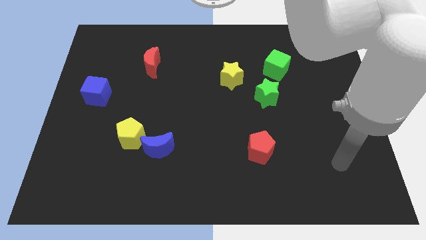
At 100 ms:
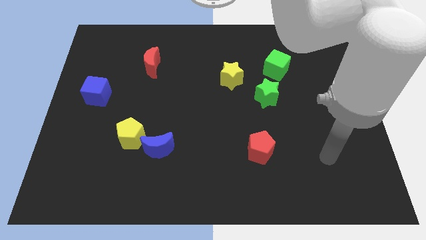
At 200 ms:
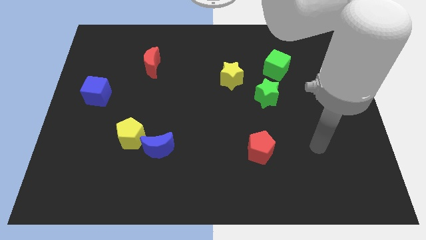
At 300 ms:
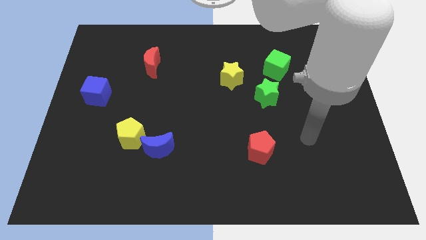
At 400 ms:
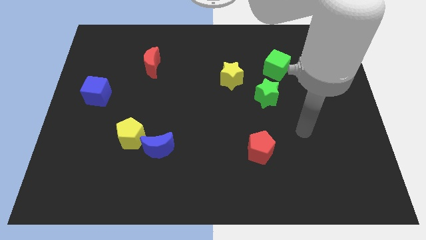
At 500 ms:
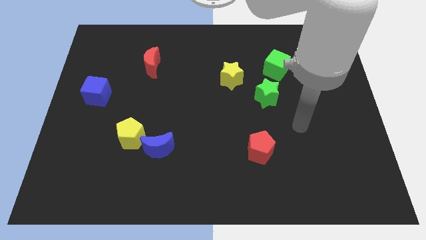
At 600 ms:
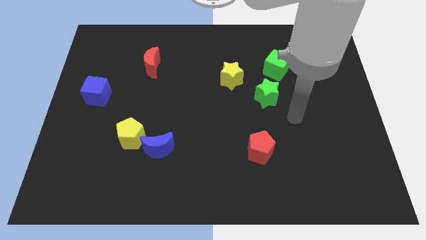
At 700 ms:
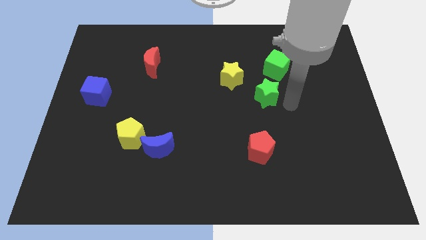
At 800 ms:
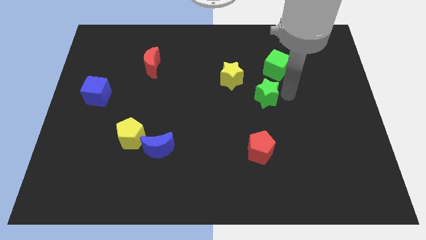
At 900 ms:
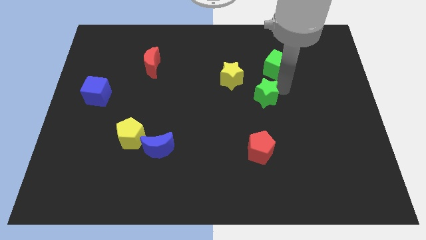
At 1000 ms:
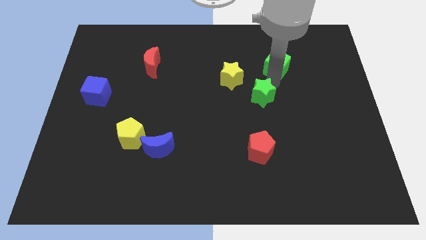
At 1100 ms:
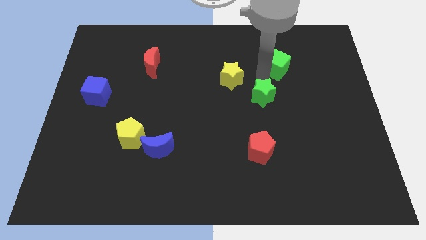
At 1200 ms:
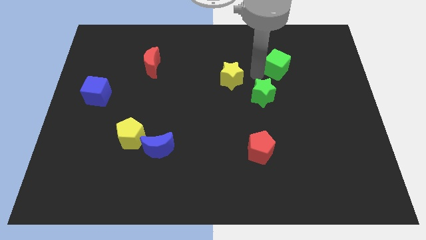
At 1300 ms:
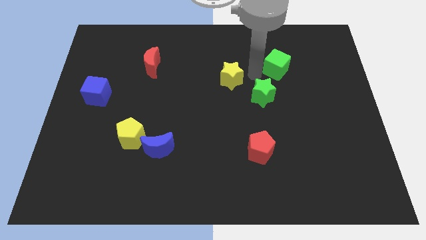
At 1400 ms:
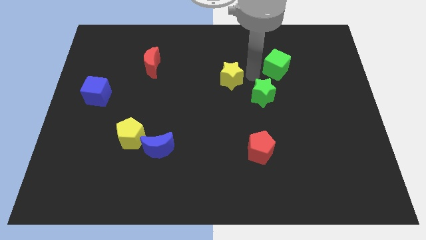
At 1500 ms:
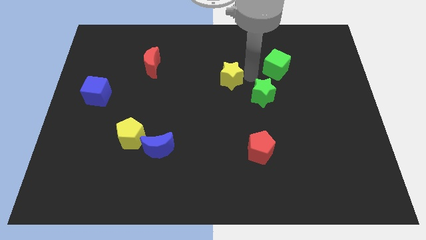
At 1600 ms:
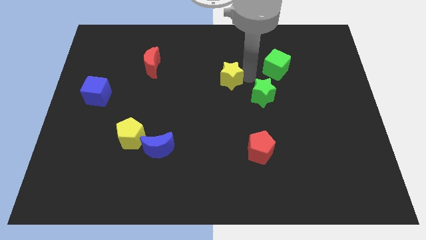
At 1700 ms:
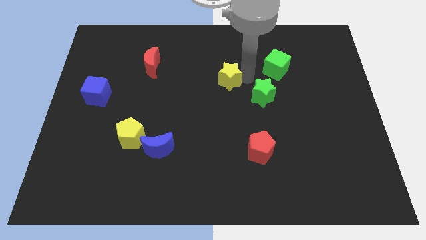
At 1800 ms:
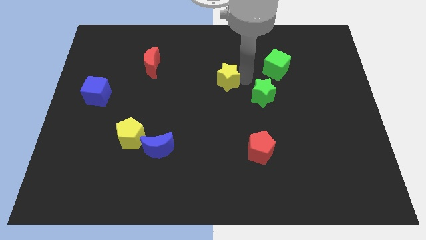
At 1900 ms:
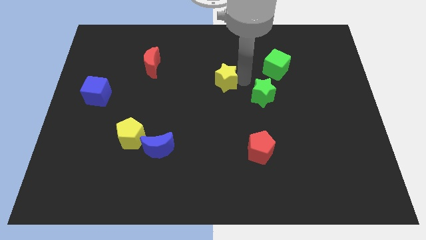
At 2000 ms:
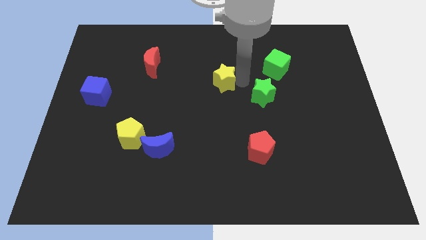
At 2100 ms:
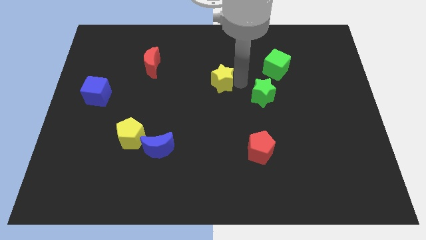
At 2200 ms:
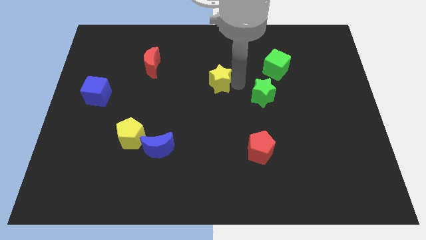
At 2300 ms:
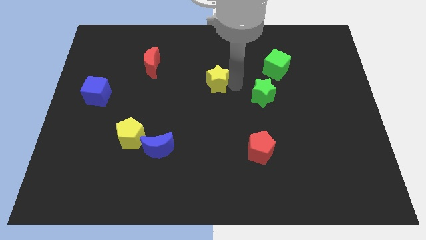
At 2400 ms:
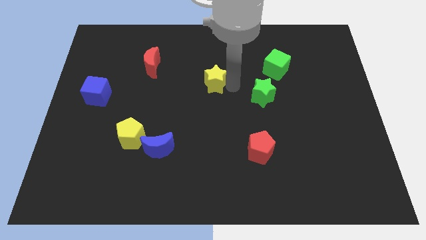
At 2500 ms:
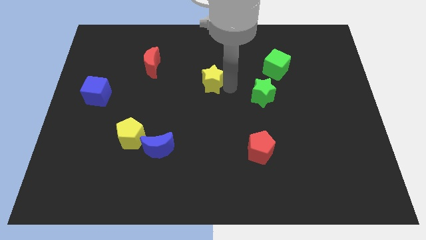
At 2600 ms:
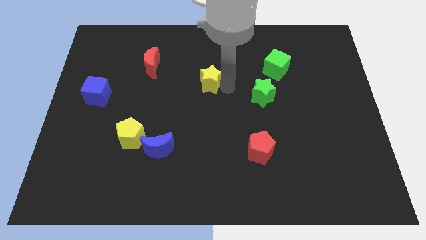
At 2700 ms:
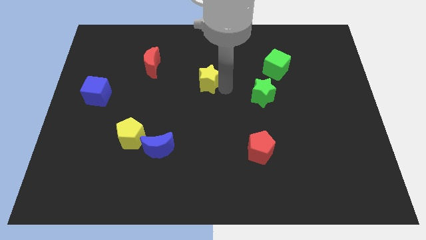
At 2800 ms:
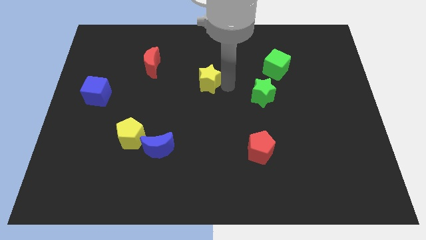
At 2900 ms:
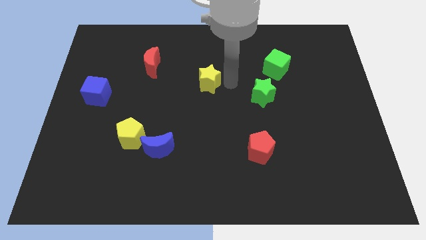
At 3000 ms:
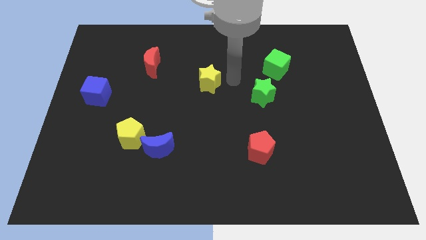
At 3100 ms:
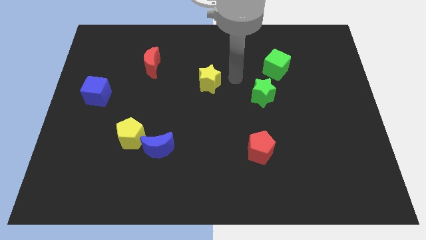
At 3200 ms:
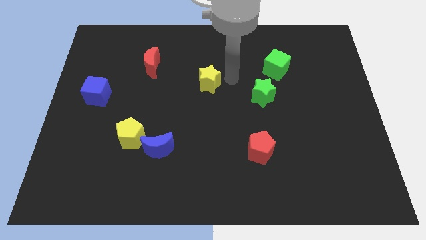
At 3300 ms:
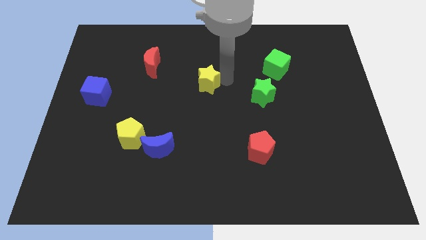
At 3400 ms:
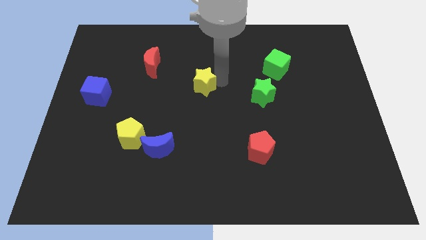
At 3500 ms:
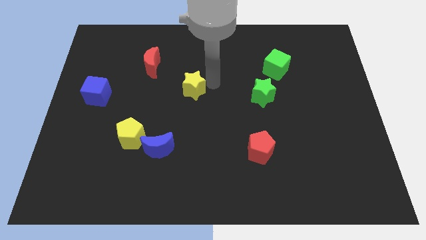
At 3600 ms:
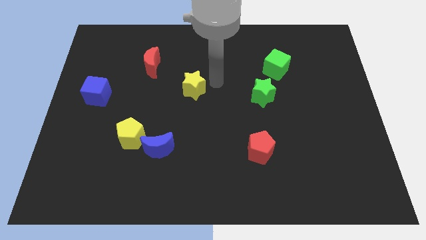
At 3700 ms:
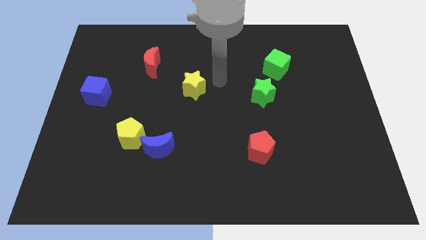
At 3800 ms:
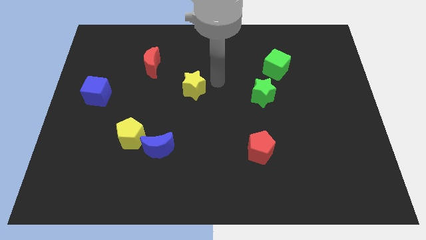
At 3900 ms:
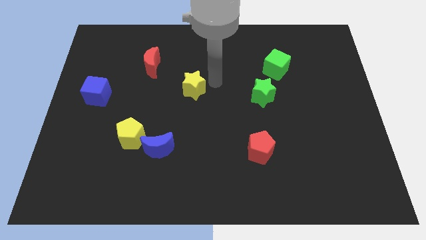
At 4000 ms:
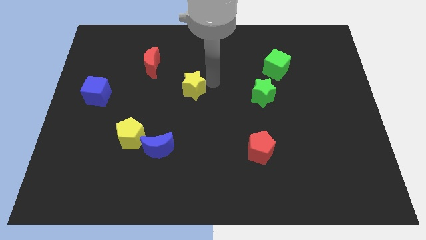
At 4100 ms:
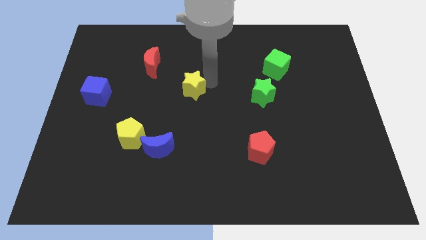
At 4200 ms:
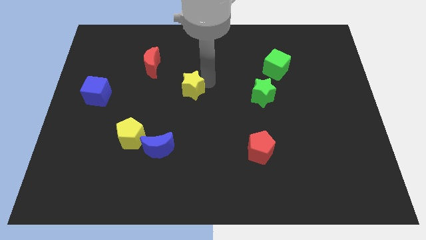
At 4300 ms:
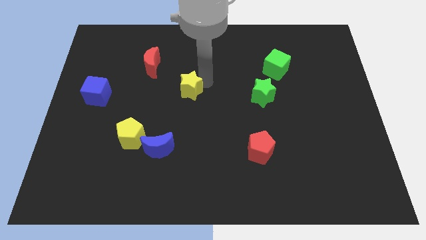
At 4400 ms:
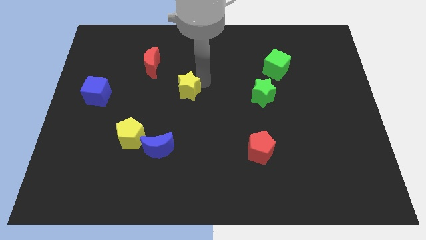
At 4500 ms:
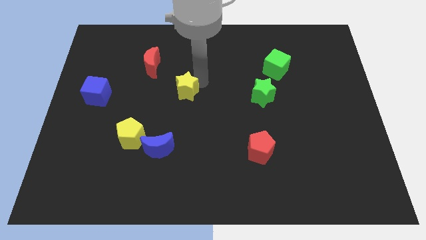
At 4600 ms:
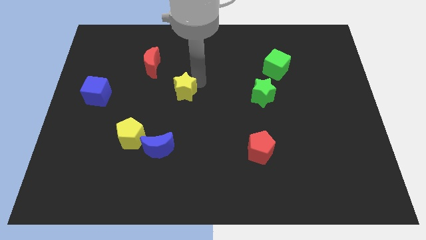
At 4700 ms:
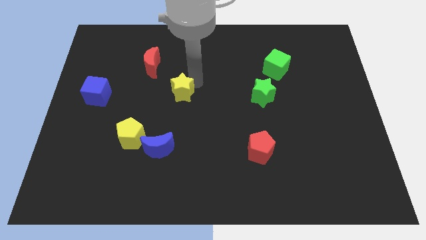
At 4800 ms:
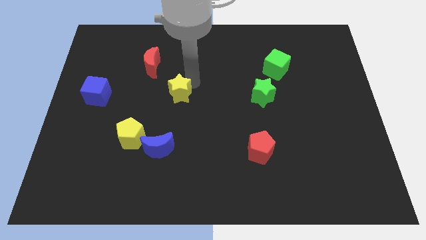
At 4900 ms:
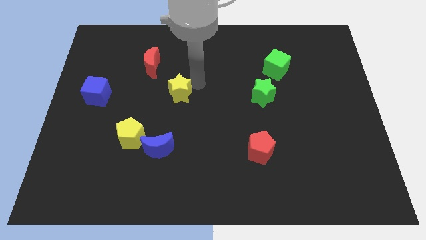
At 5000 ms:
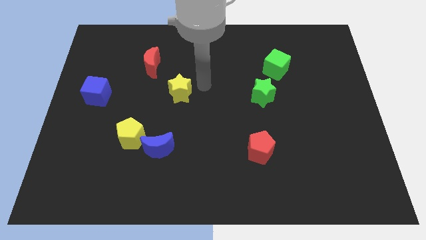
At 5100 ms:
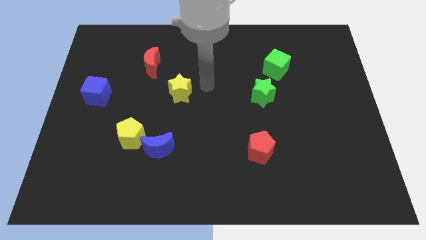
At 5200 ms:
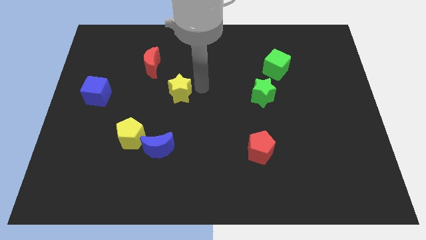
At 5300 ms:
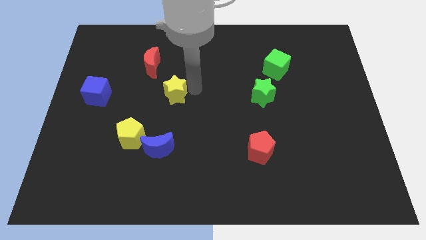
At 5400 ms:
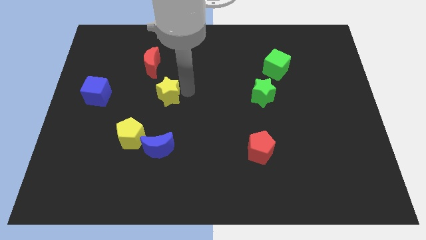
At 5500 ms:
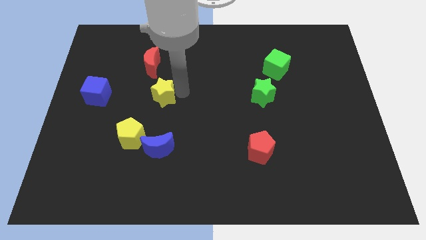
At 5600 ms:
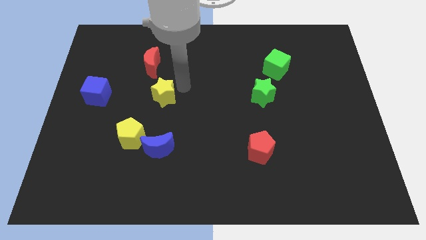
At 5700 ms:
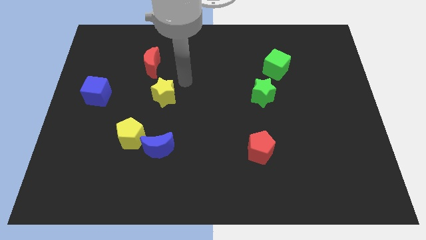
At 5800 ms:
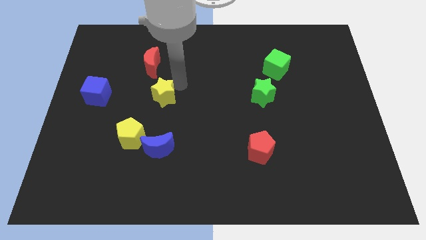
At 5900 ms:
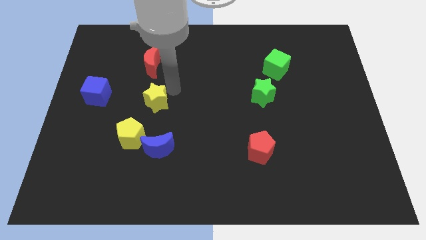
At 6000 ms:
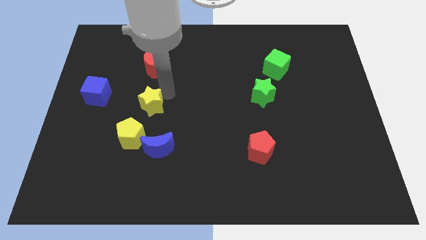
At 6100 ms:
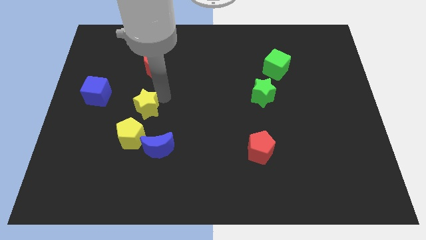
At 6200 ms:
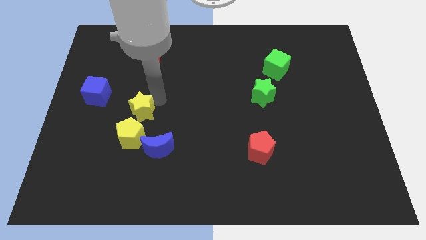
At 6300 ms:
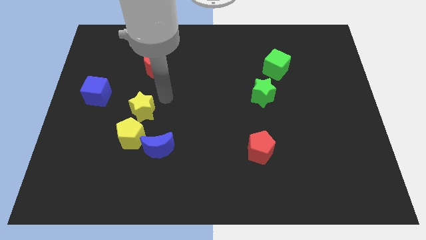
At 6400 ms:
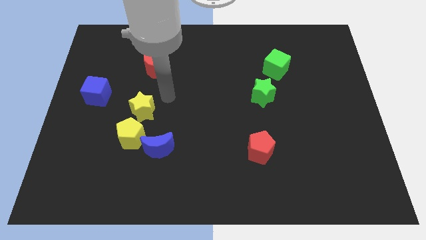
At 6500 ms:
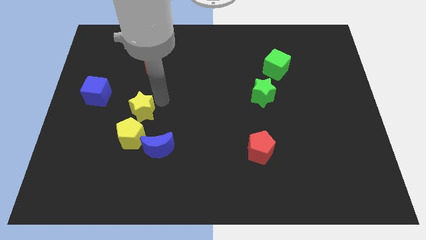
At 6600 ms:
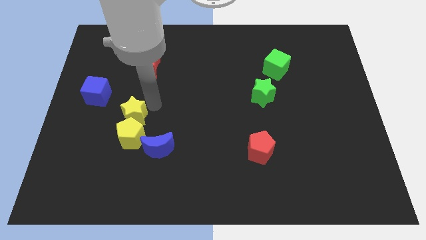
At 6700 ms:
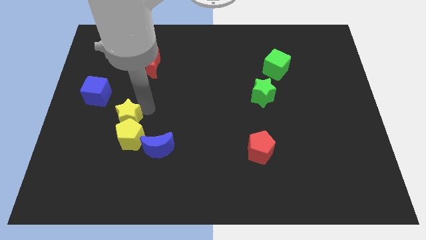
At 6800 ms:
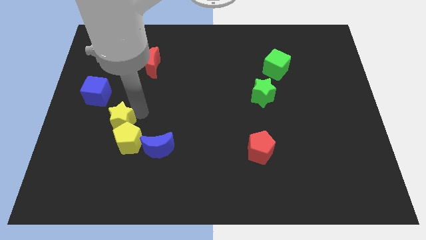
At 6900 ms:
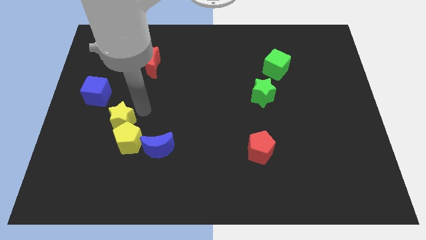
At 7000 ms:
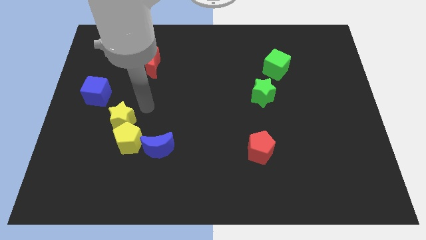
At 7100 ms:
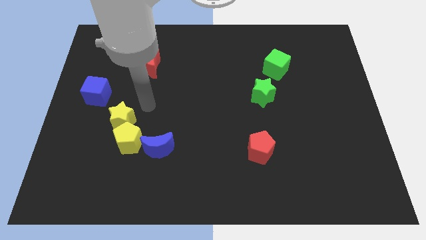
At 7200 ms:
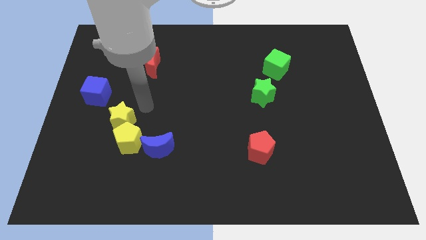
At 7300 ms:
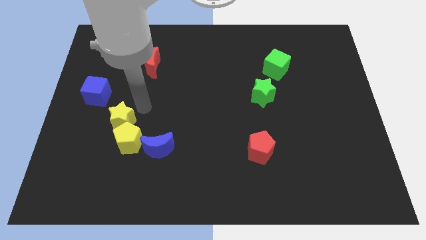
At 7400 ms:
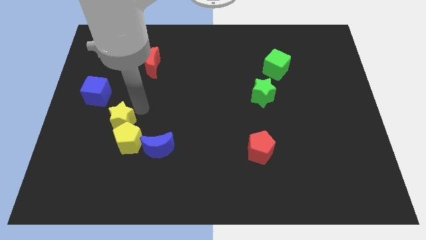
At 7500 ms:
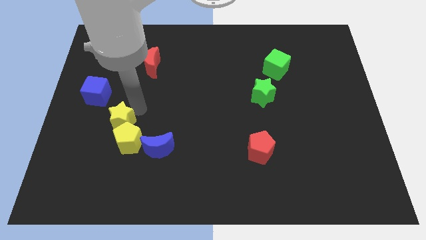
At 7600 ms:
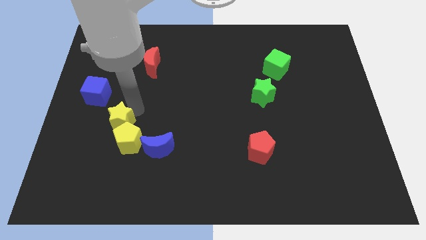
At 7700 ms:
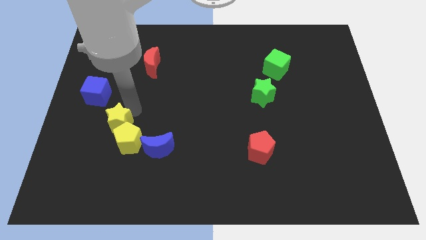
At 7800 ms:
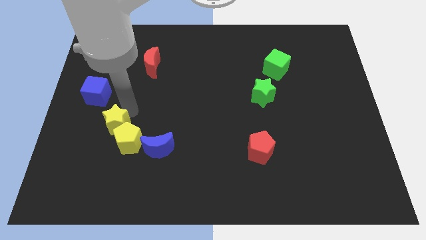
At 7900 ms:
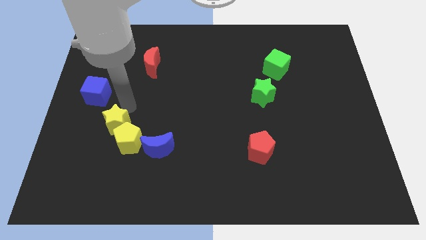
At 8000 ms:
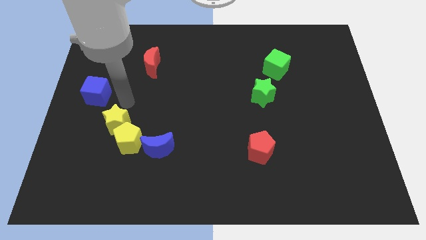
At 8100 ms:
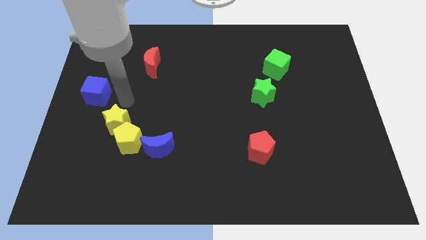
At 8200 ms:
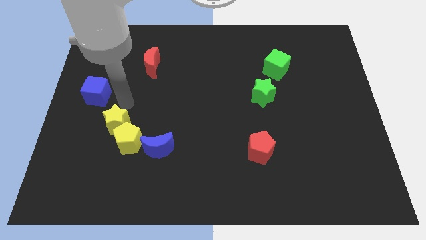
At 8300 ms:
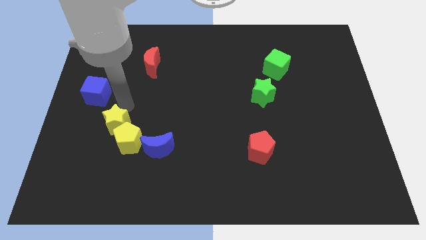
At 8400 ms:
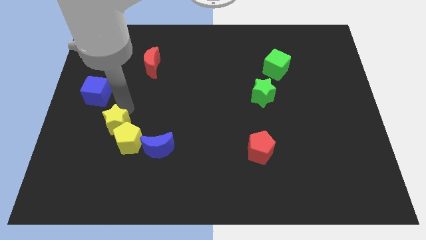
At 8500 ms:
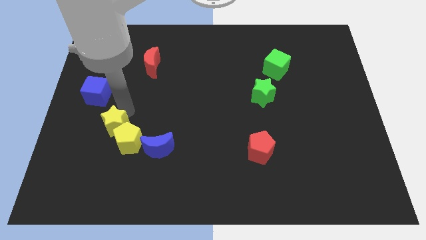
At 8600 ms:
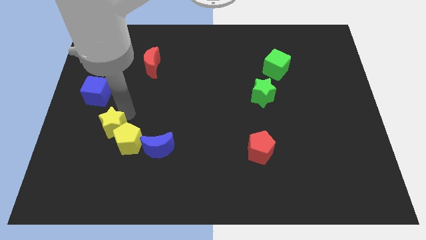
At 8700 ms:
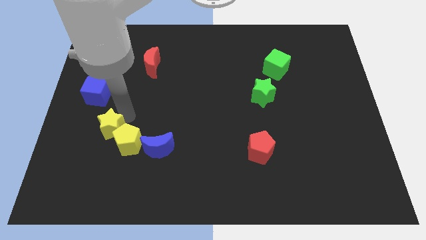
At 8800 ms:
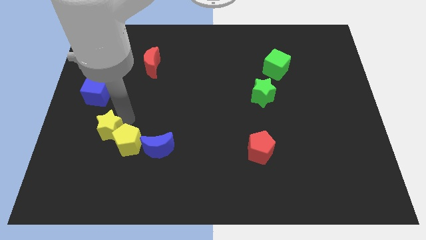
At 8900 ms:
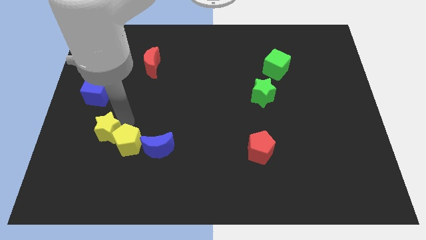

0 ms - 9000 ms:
move the yellow star just left of the blue moon
